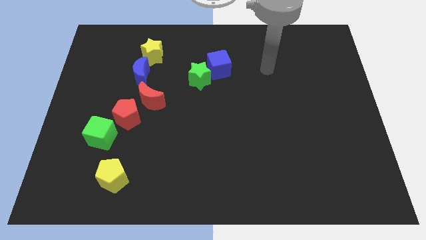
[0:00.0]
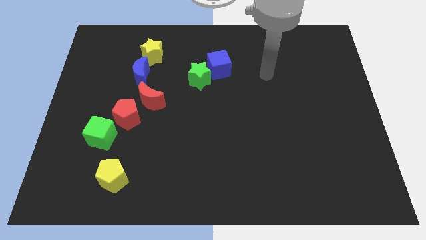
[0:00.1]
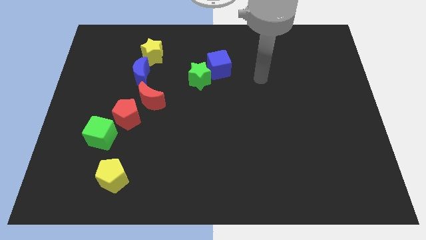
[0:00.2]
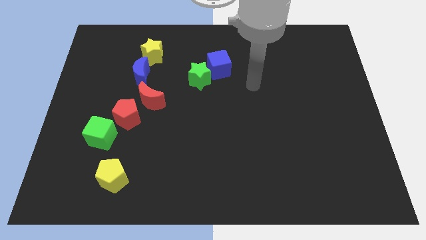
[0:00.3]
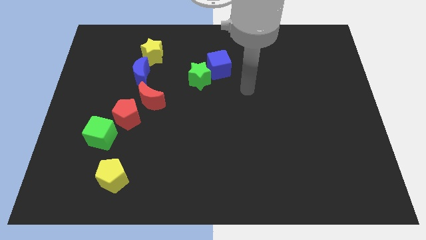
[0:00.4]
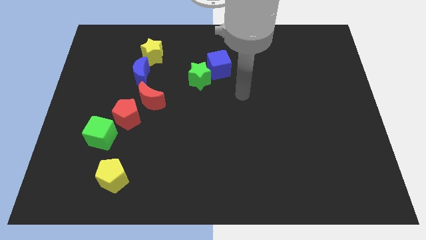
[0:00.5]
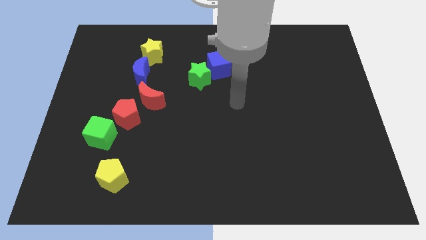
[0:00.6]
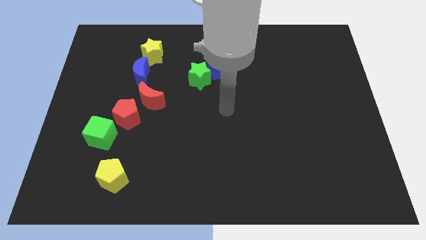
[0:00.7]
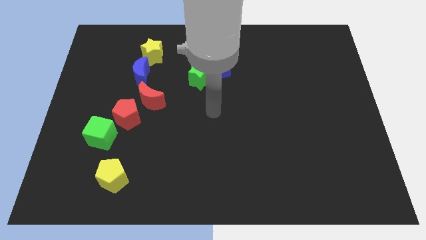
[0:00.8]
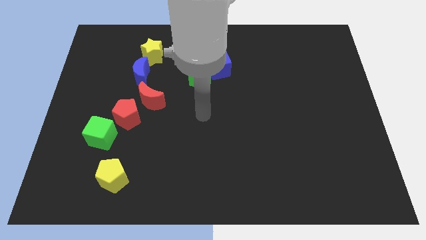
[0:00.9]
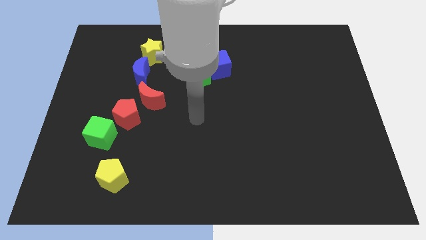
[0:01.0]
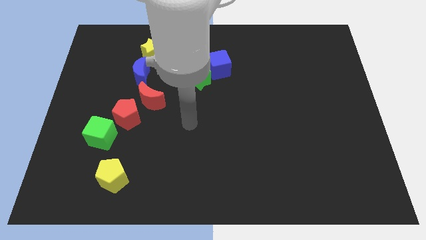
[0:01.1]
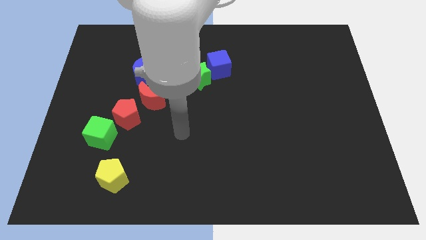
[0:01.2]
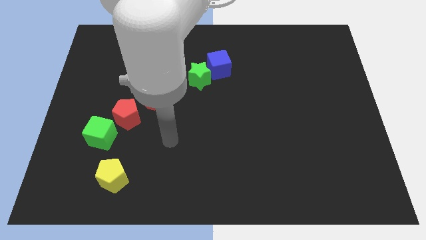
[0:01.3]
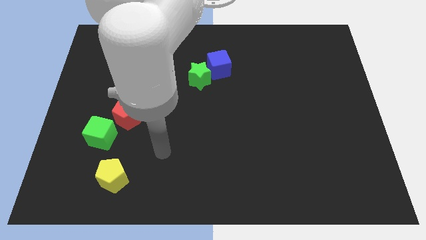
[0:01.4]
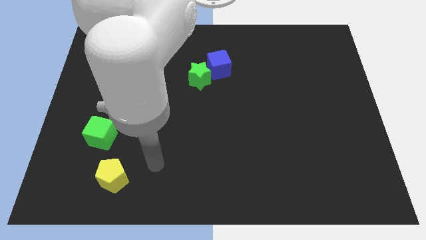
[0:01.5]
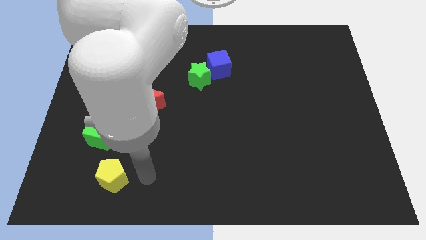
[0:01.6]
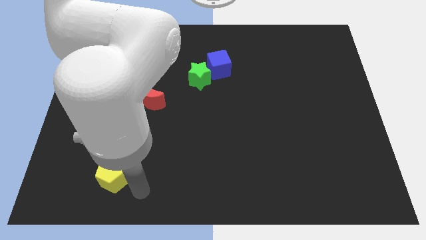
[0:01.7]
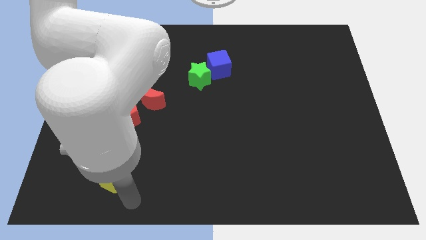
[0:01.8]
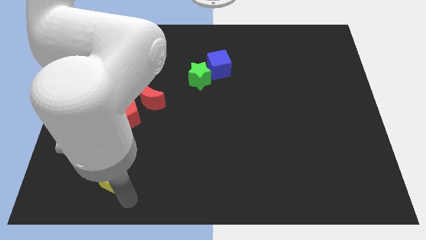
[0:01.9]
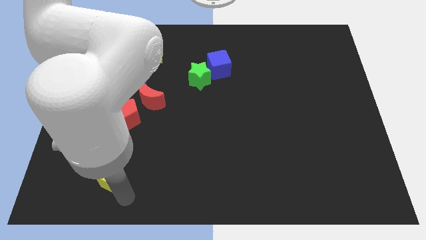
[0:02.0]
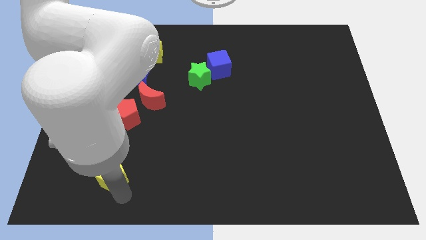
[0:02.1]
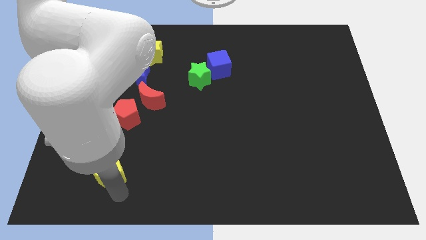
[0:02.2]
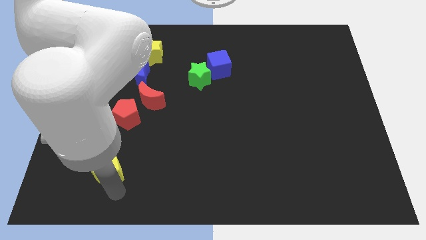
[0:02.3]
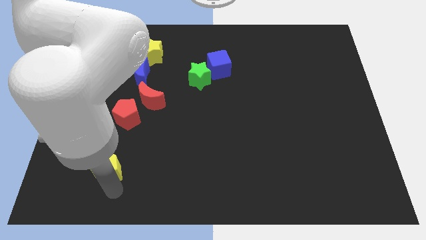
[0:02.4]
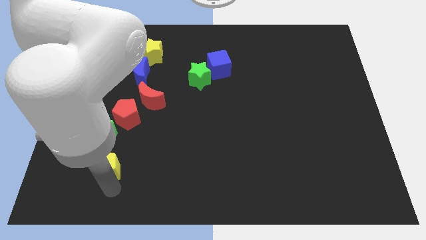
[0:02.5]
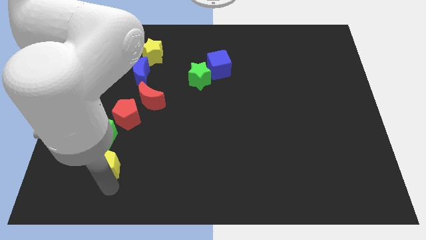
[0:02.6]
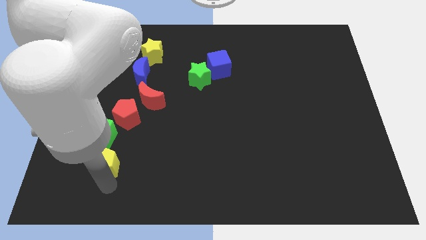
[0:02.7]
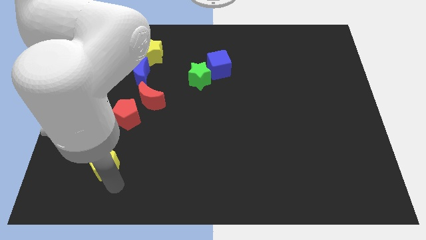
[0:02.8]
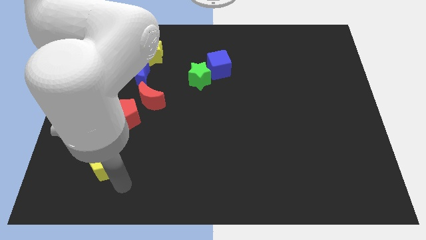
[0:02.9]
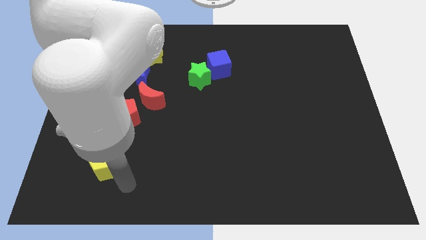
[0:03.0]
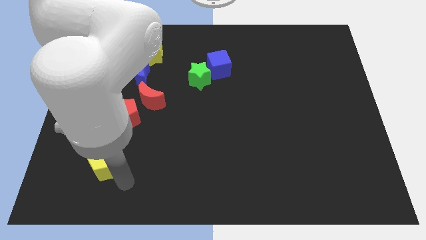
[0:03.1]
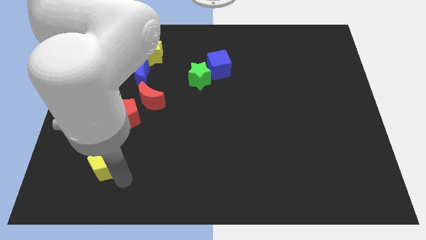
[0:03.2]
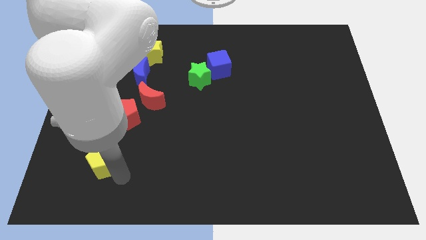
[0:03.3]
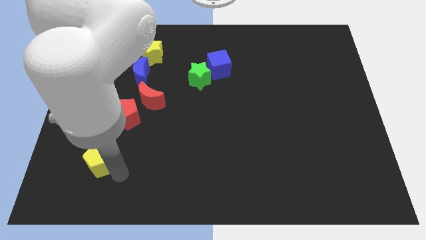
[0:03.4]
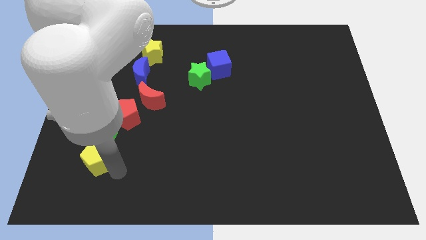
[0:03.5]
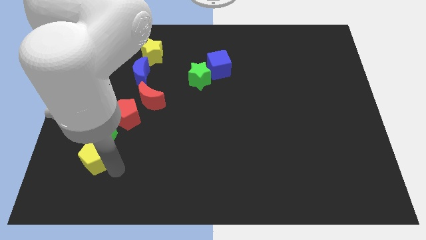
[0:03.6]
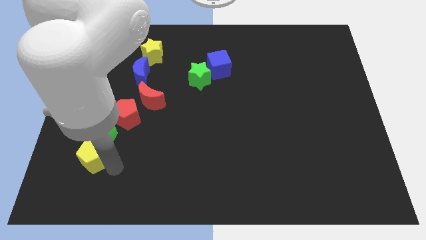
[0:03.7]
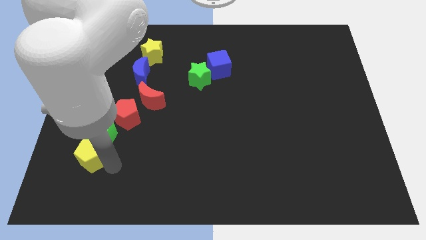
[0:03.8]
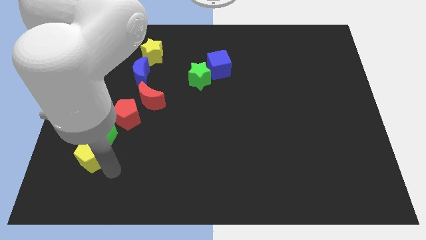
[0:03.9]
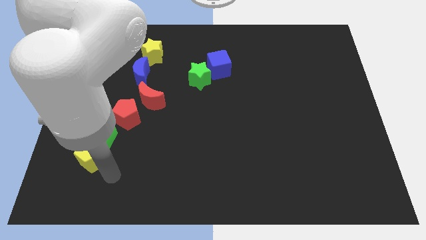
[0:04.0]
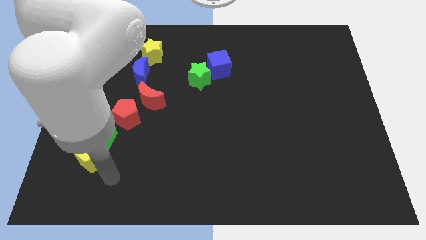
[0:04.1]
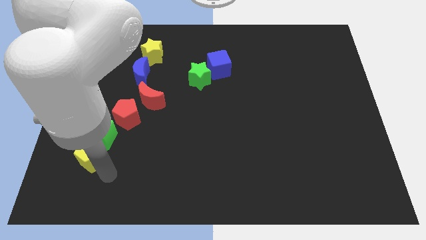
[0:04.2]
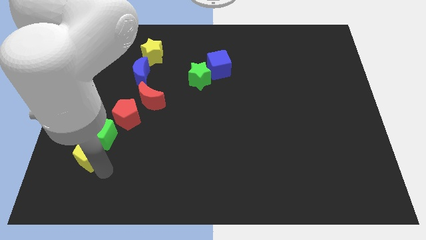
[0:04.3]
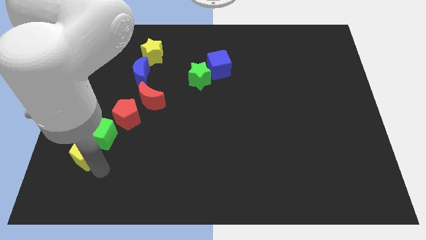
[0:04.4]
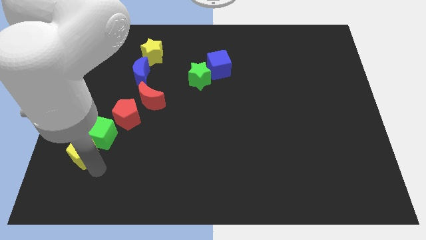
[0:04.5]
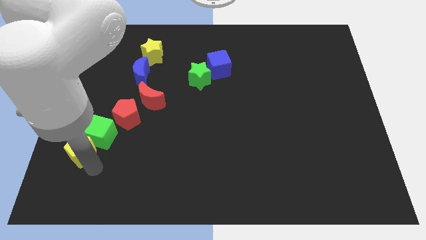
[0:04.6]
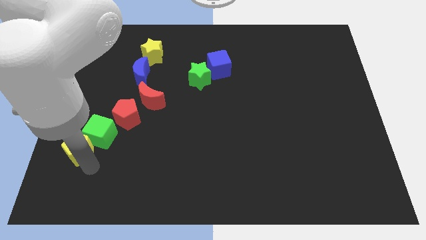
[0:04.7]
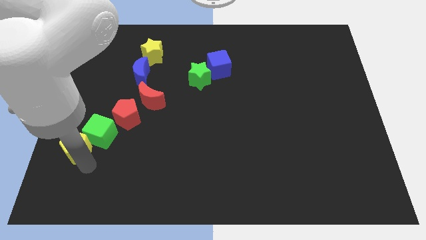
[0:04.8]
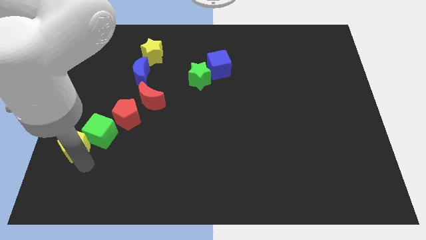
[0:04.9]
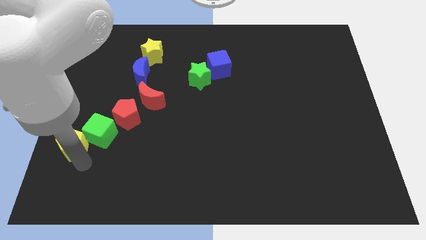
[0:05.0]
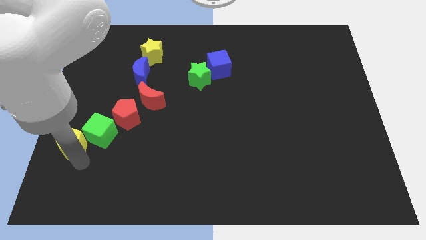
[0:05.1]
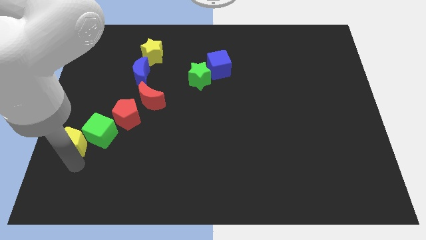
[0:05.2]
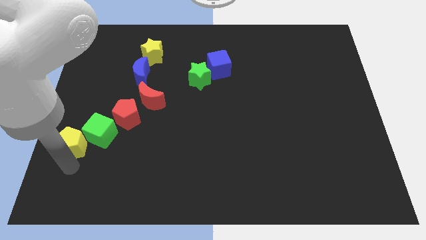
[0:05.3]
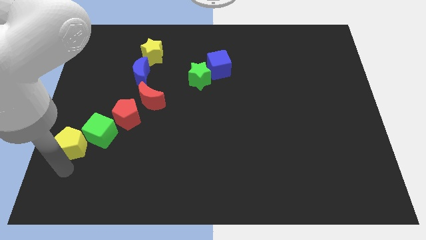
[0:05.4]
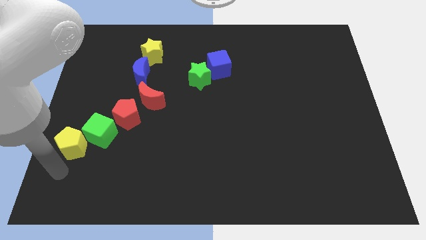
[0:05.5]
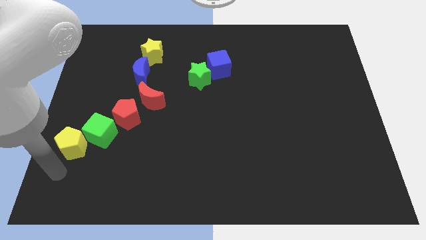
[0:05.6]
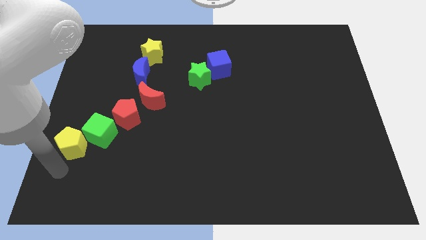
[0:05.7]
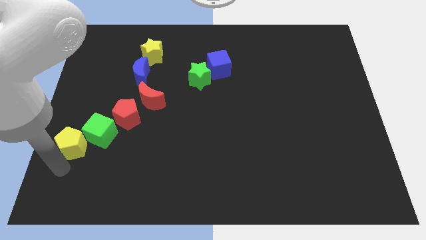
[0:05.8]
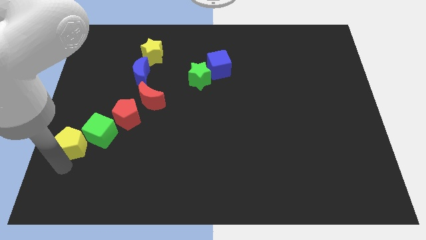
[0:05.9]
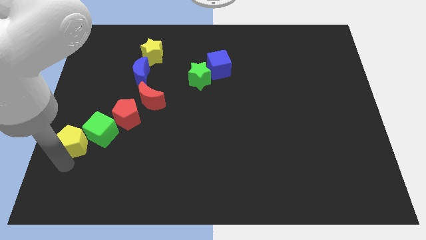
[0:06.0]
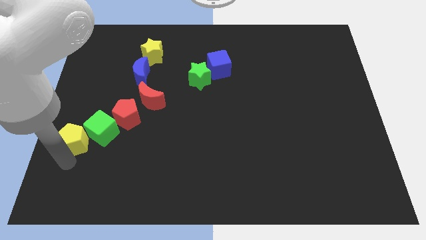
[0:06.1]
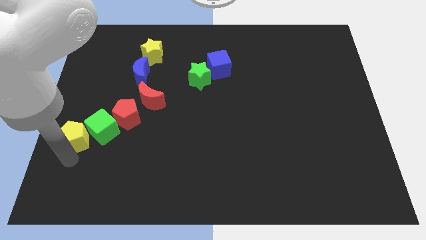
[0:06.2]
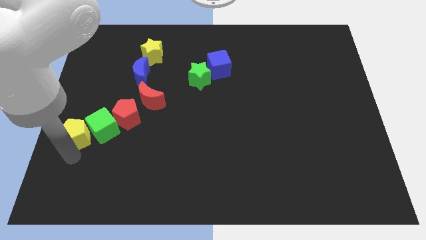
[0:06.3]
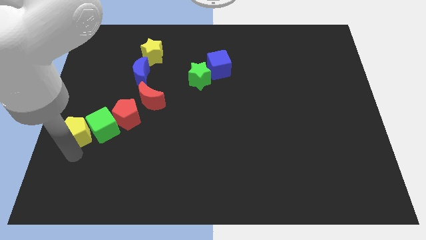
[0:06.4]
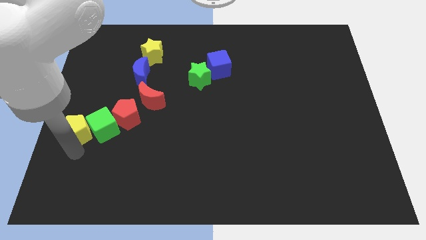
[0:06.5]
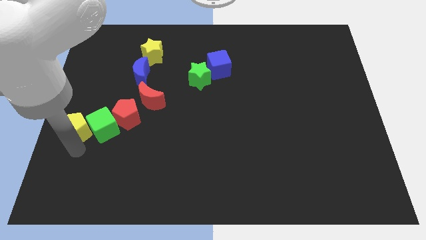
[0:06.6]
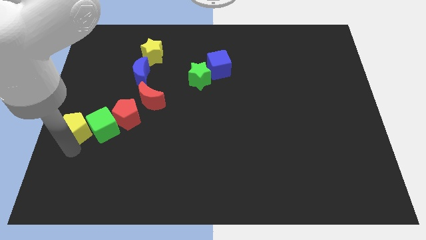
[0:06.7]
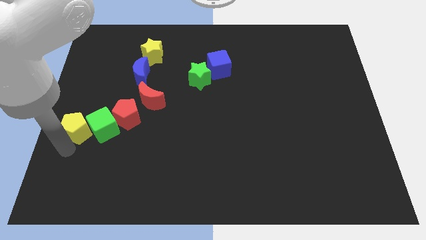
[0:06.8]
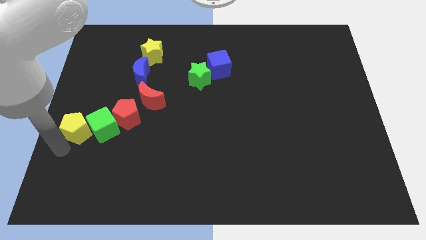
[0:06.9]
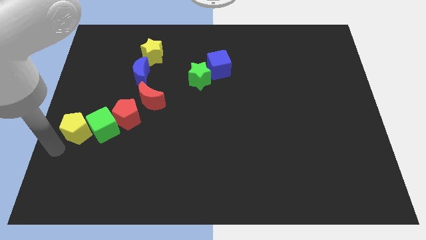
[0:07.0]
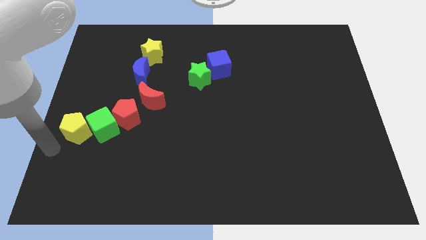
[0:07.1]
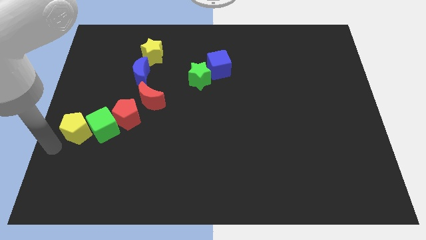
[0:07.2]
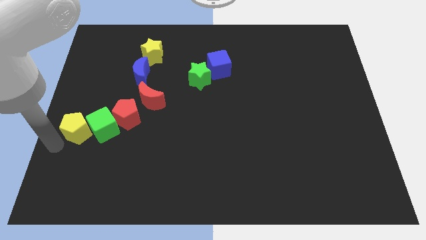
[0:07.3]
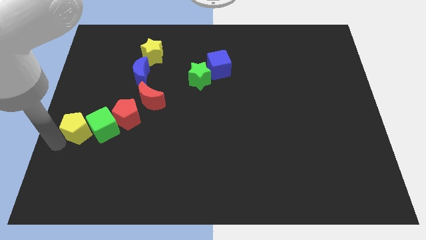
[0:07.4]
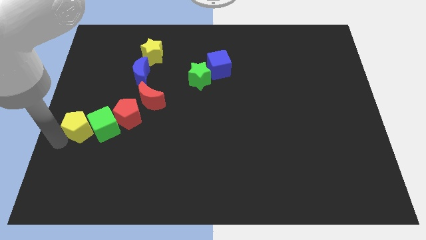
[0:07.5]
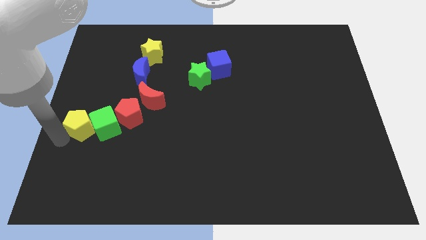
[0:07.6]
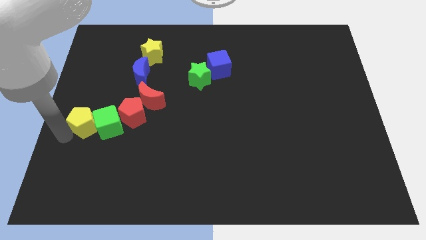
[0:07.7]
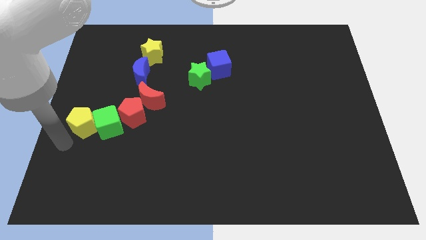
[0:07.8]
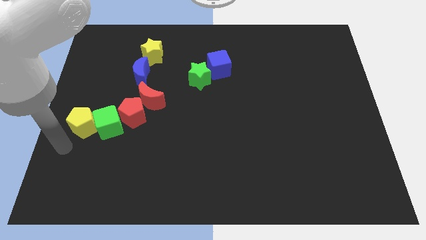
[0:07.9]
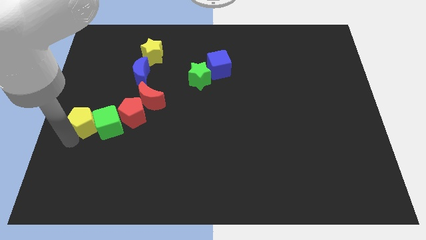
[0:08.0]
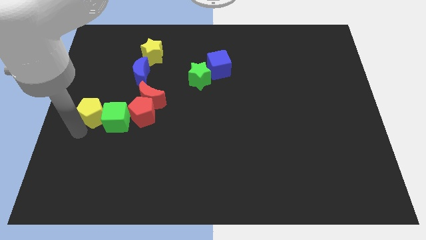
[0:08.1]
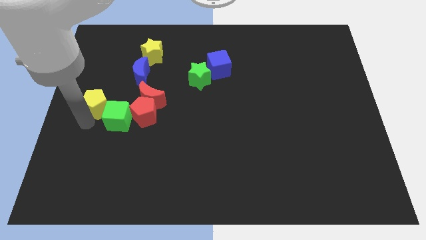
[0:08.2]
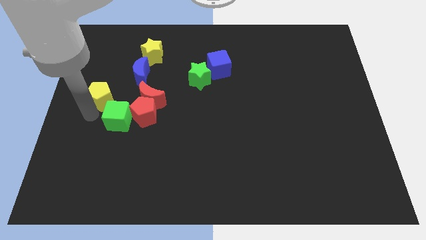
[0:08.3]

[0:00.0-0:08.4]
slide the yellow pentagon above the green cube
